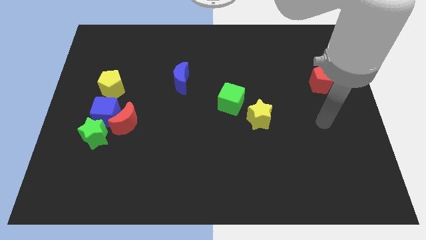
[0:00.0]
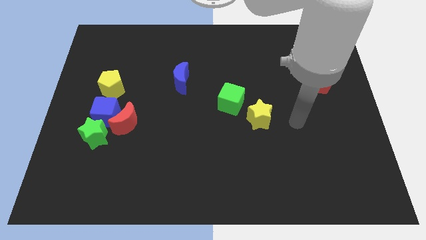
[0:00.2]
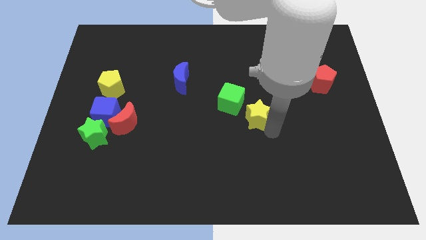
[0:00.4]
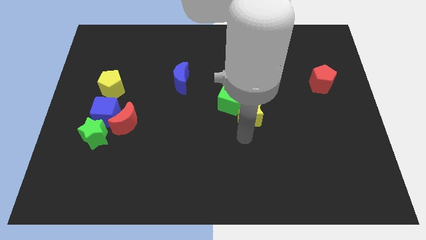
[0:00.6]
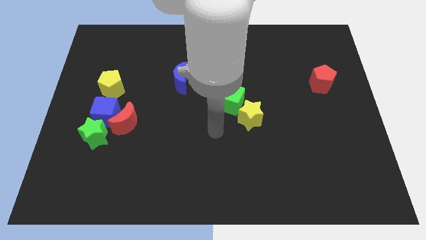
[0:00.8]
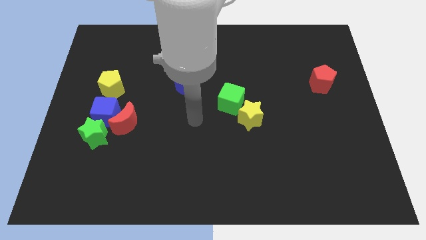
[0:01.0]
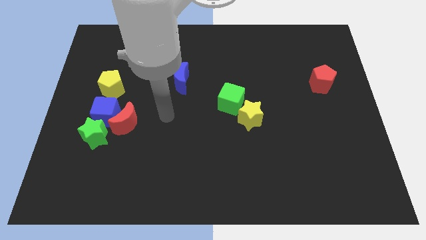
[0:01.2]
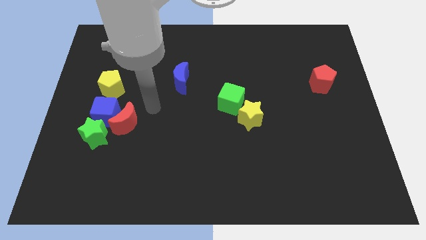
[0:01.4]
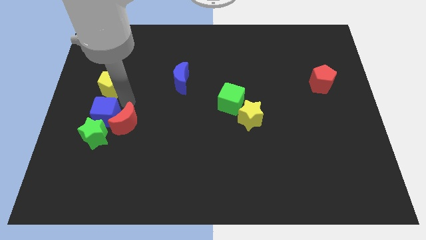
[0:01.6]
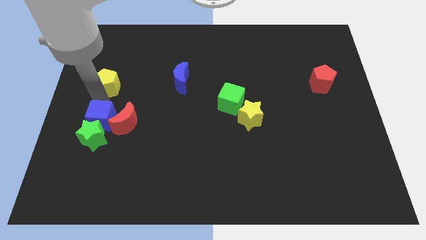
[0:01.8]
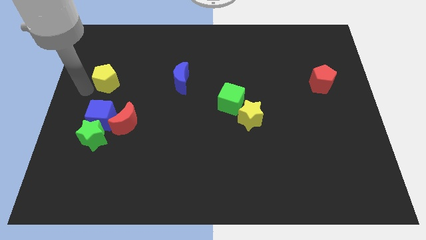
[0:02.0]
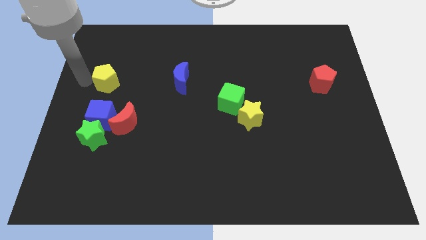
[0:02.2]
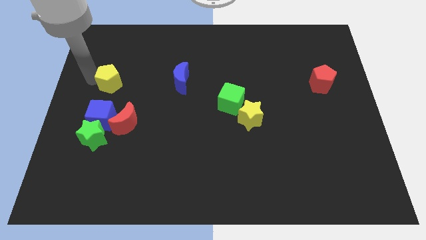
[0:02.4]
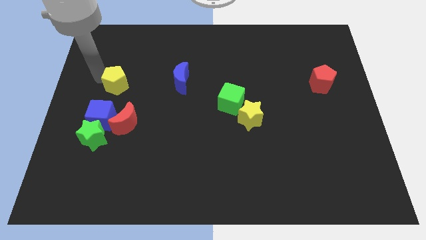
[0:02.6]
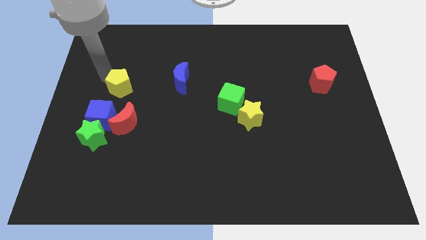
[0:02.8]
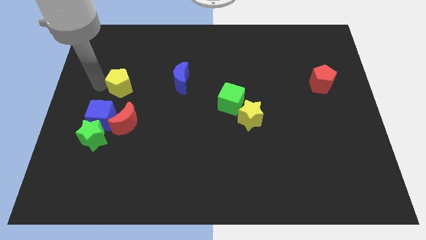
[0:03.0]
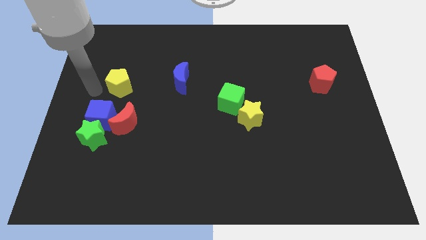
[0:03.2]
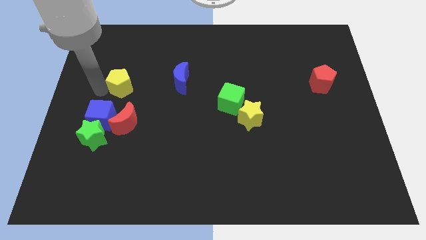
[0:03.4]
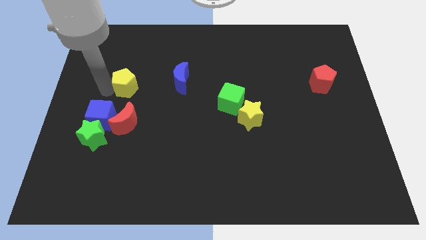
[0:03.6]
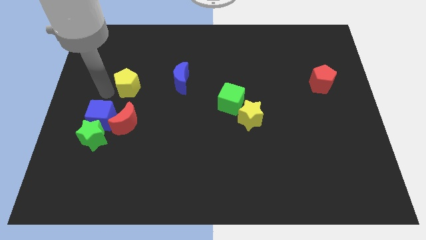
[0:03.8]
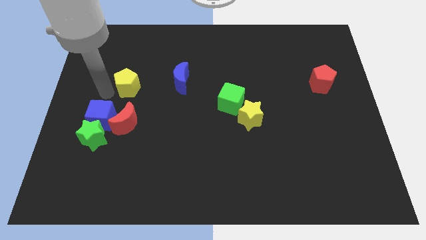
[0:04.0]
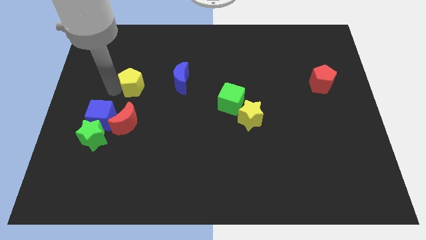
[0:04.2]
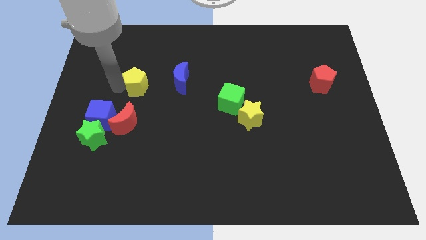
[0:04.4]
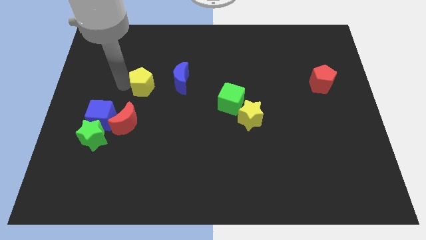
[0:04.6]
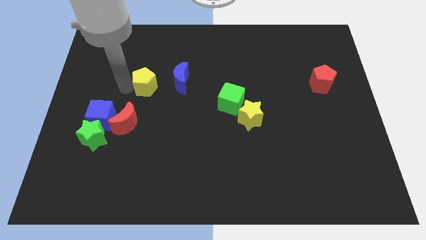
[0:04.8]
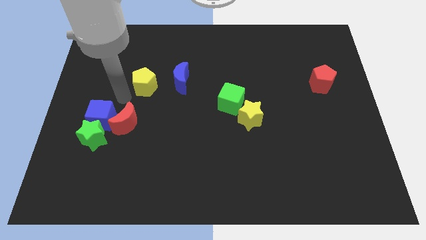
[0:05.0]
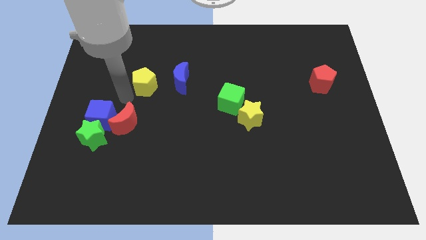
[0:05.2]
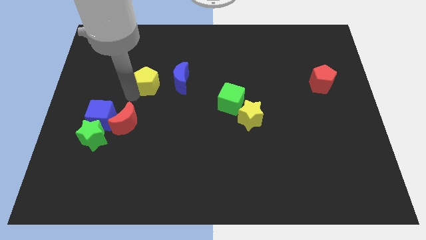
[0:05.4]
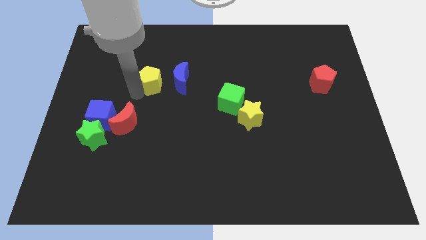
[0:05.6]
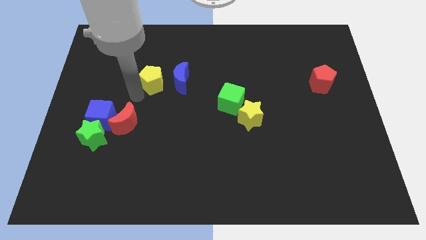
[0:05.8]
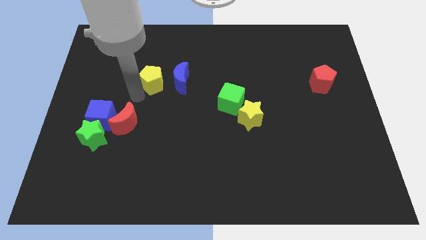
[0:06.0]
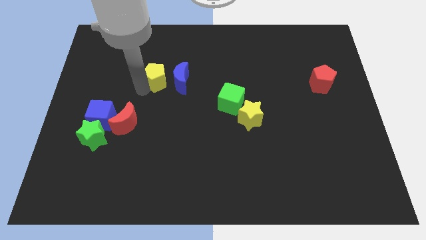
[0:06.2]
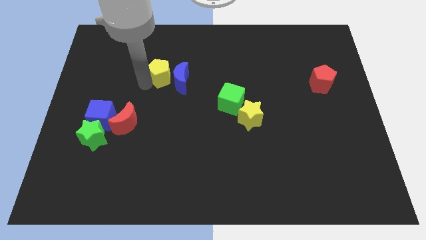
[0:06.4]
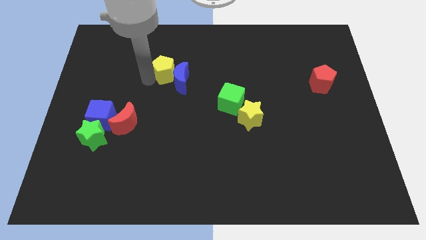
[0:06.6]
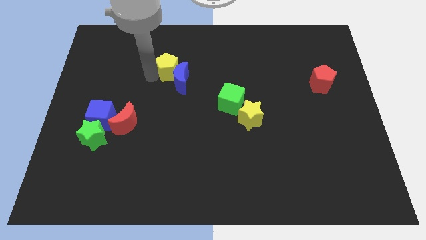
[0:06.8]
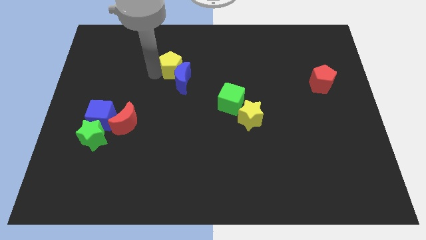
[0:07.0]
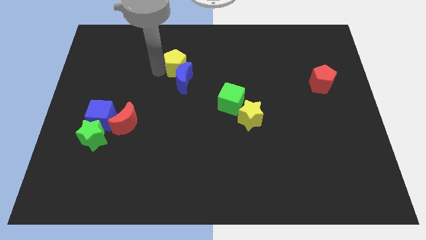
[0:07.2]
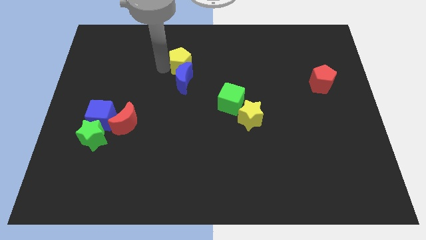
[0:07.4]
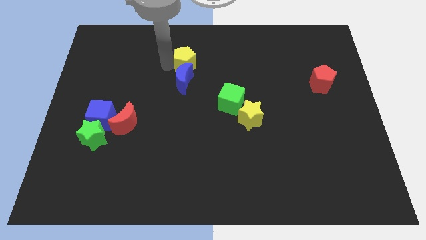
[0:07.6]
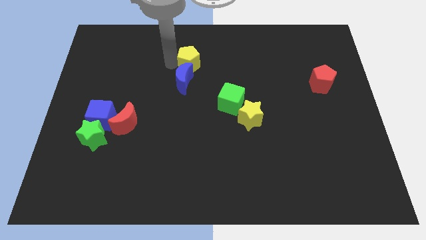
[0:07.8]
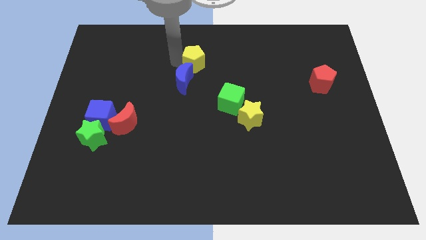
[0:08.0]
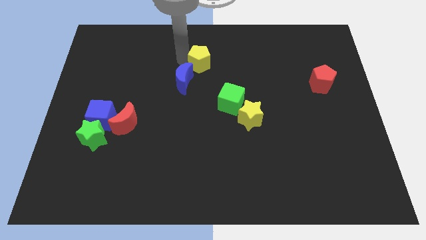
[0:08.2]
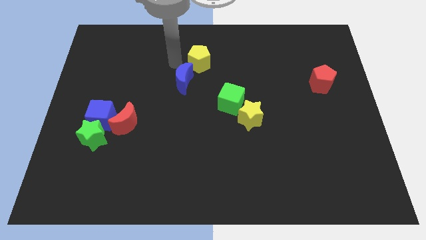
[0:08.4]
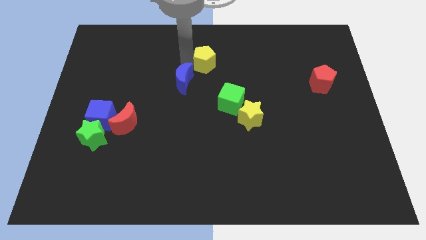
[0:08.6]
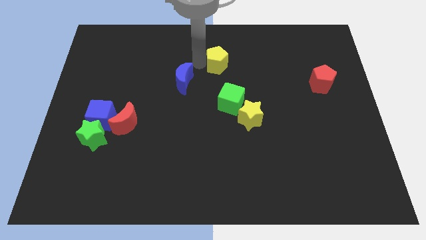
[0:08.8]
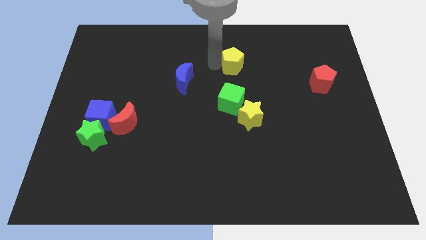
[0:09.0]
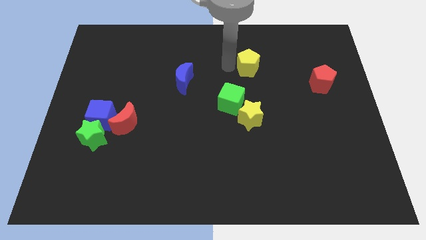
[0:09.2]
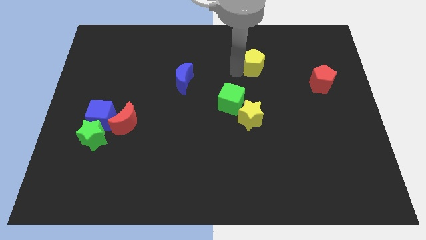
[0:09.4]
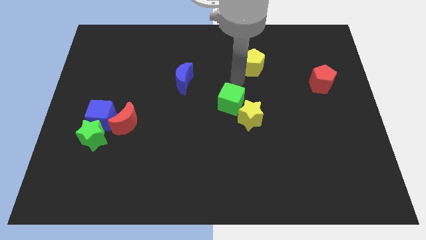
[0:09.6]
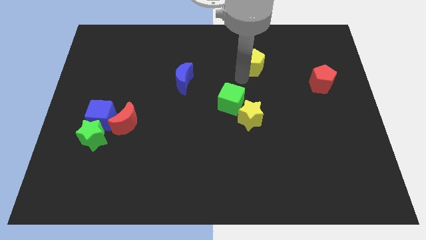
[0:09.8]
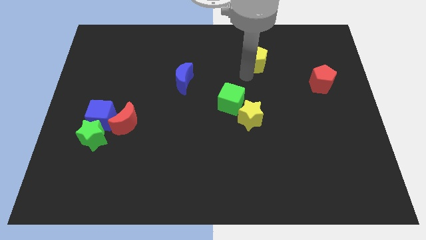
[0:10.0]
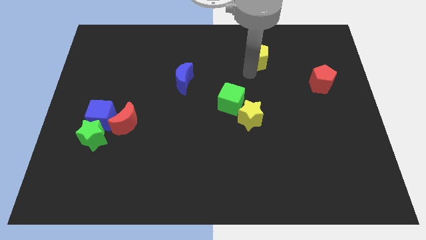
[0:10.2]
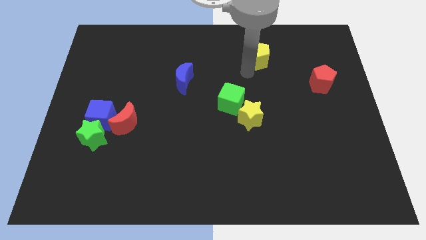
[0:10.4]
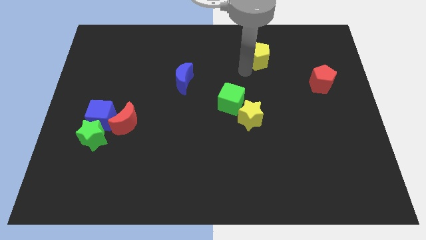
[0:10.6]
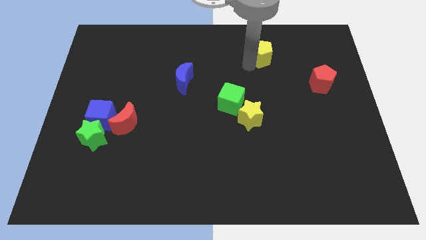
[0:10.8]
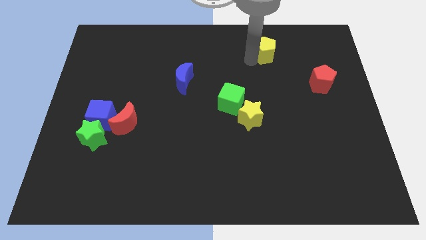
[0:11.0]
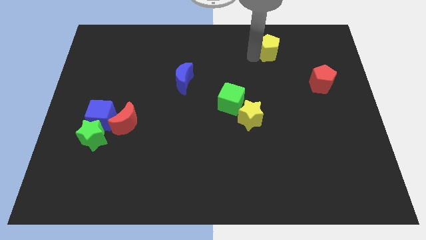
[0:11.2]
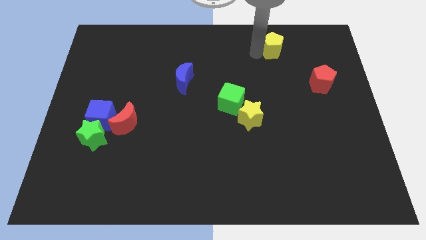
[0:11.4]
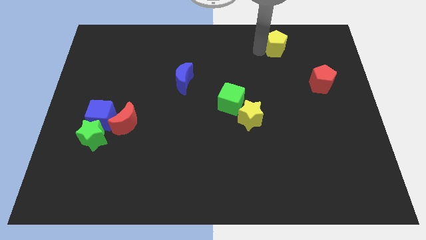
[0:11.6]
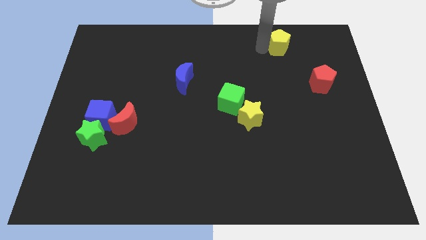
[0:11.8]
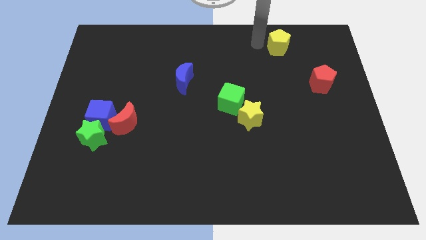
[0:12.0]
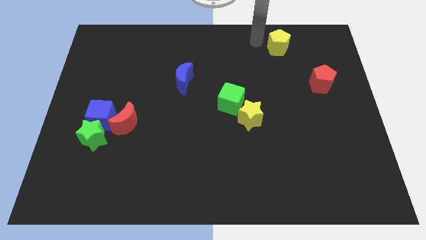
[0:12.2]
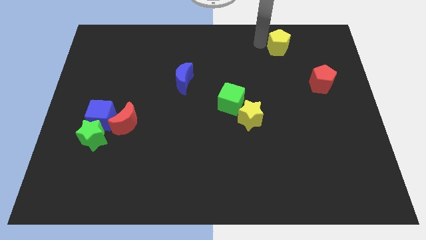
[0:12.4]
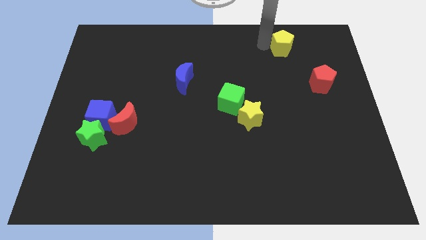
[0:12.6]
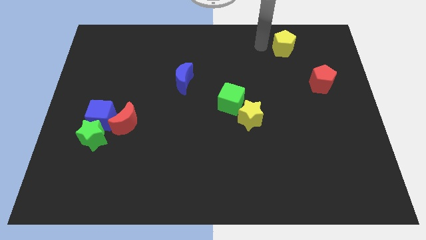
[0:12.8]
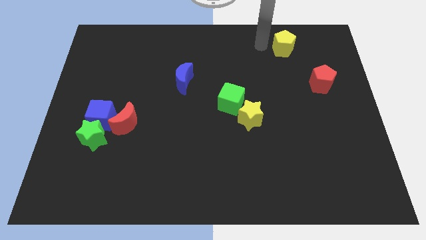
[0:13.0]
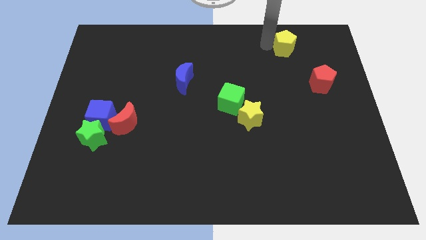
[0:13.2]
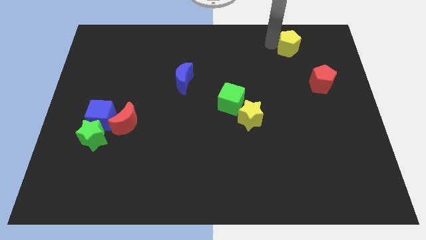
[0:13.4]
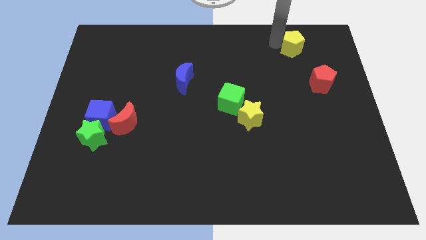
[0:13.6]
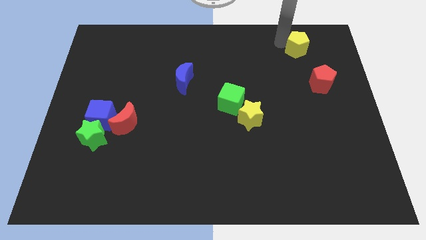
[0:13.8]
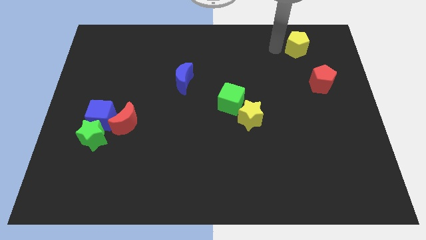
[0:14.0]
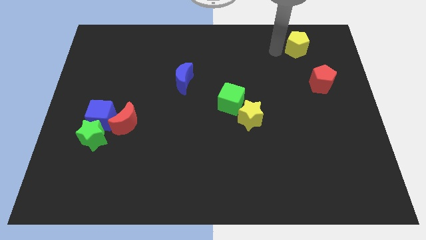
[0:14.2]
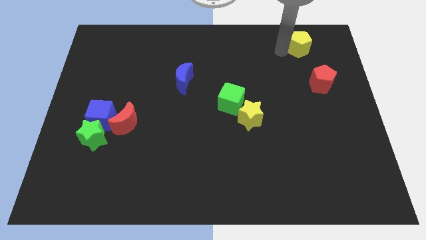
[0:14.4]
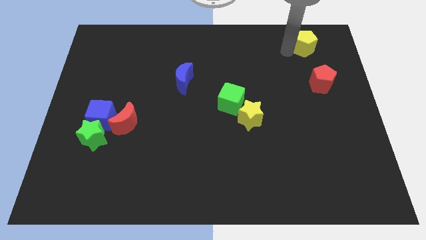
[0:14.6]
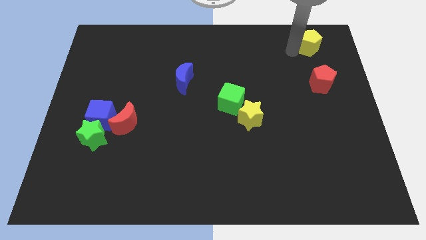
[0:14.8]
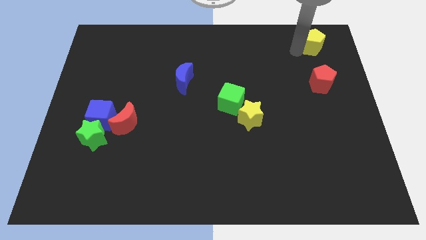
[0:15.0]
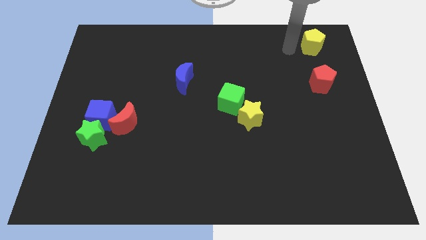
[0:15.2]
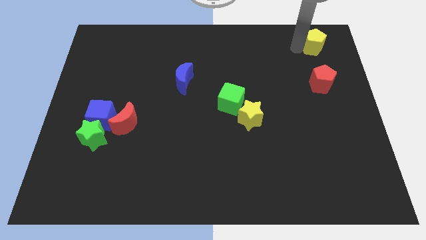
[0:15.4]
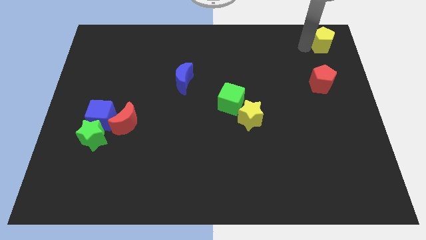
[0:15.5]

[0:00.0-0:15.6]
move the yellow pentagon to the top right
